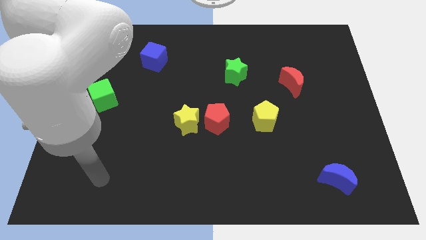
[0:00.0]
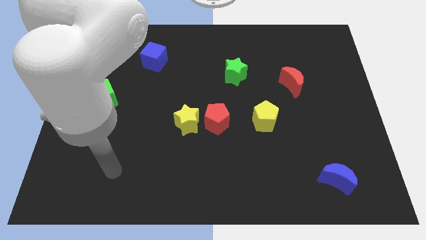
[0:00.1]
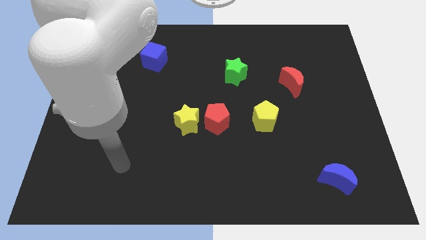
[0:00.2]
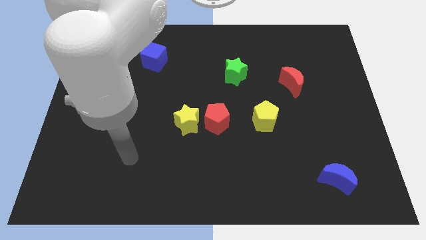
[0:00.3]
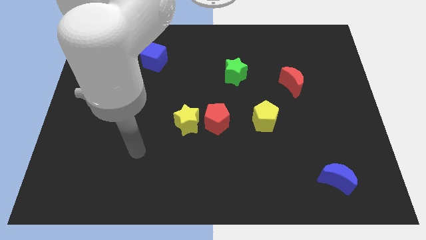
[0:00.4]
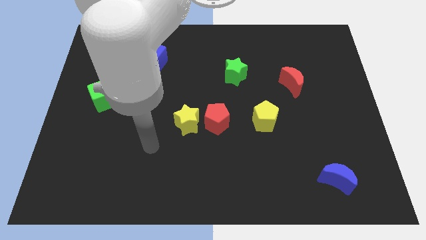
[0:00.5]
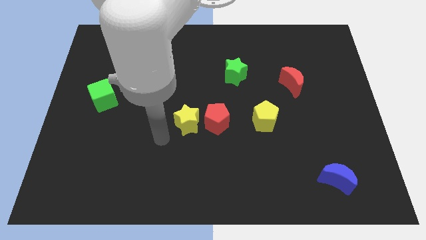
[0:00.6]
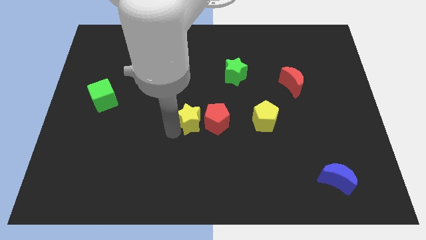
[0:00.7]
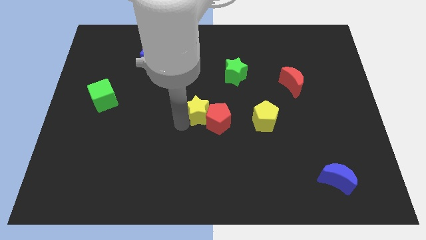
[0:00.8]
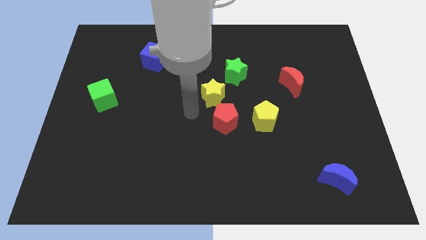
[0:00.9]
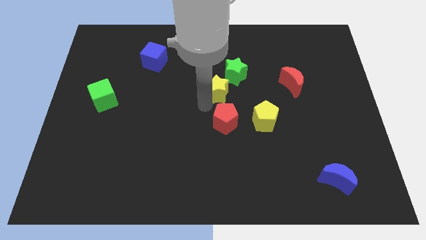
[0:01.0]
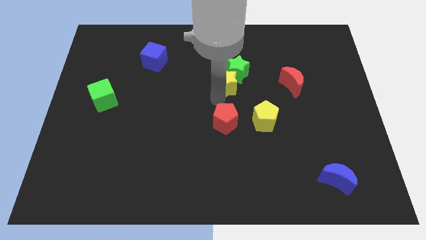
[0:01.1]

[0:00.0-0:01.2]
move the red pentagon away from the yellow star

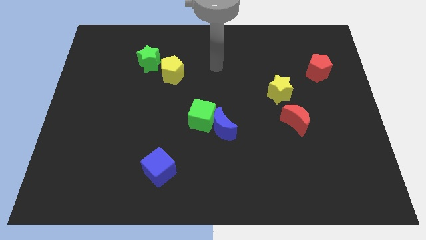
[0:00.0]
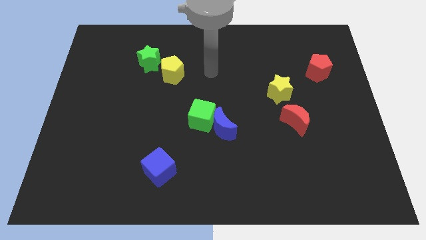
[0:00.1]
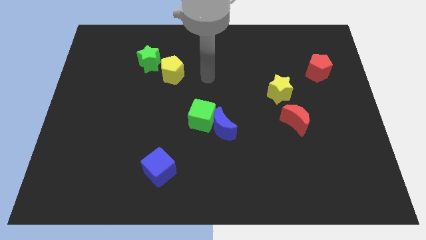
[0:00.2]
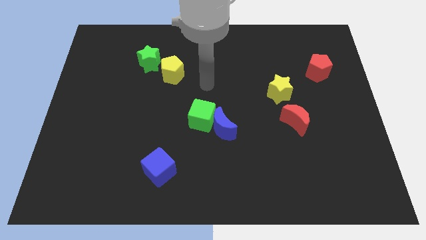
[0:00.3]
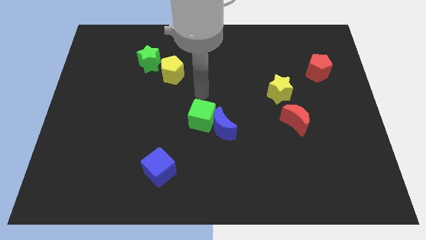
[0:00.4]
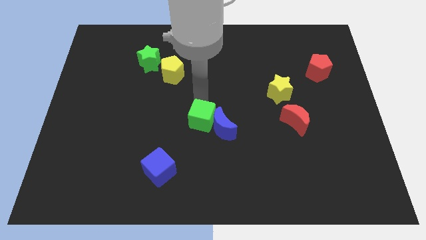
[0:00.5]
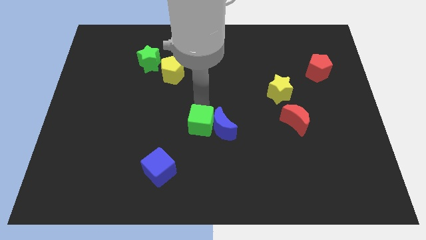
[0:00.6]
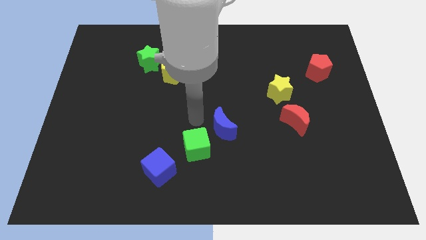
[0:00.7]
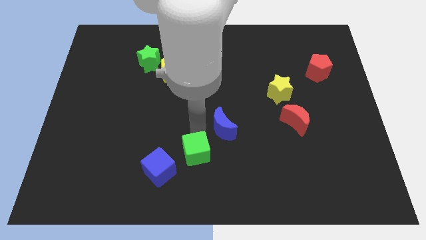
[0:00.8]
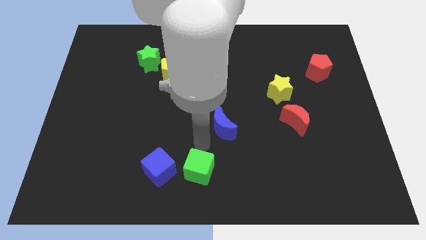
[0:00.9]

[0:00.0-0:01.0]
pull the blue moon apart from the green cube

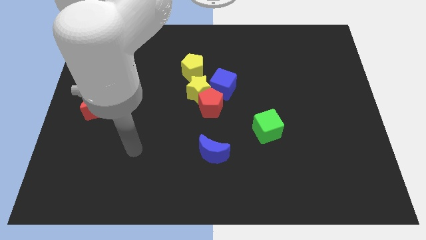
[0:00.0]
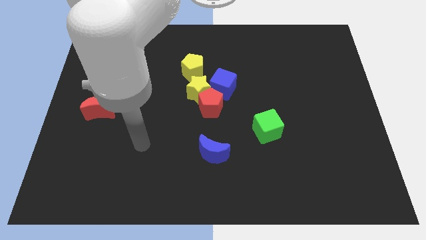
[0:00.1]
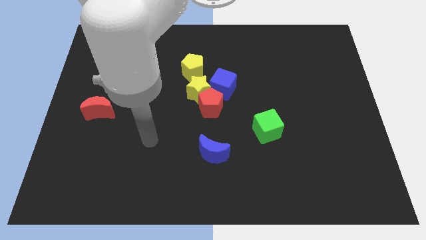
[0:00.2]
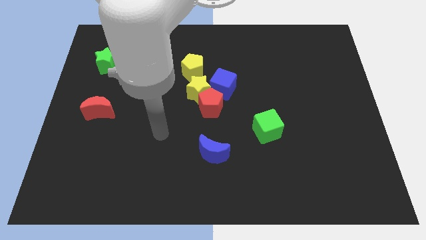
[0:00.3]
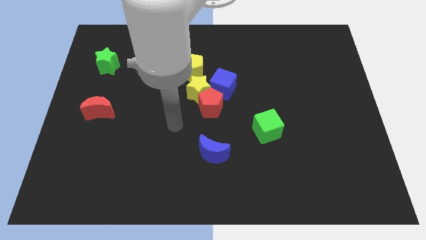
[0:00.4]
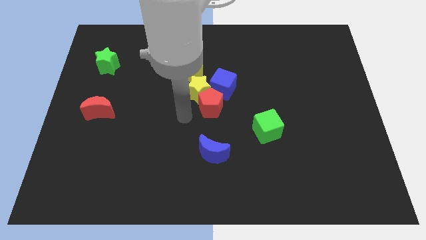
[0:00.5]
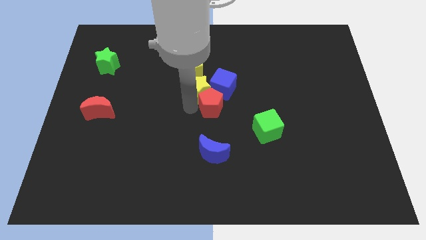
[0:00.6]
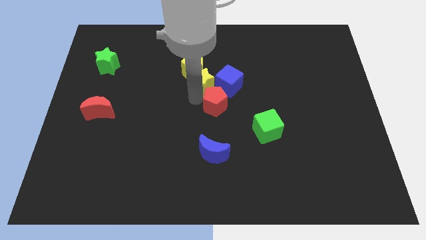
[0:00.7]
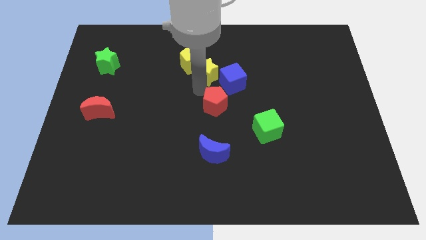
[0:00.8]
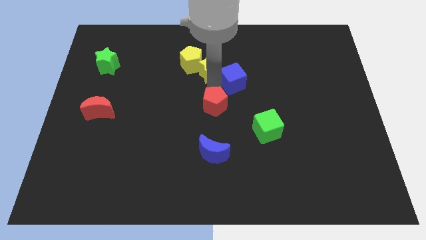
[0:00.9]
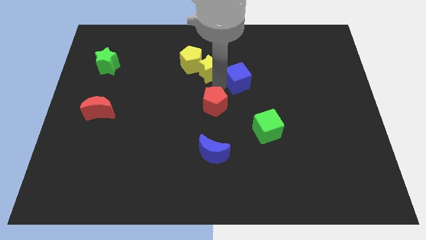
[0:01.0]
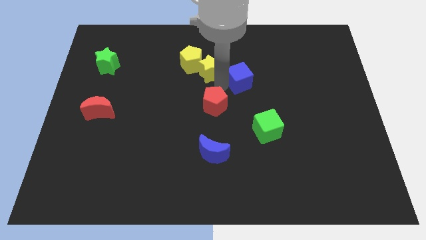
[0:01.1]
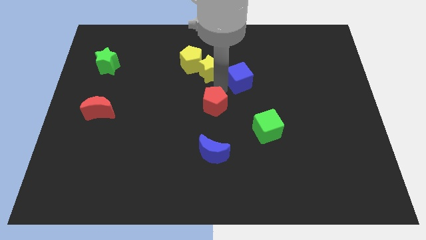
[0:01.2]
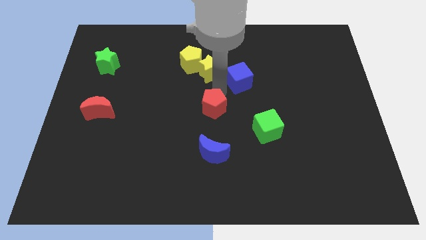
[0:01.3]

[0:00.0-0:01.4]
separate the red pentagon from the yellow star and blue cube

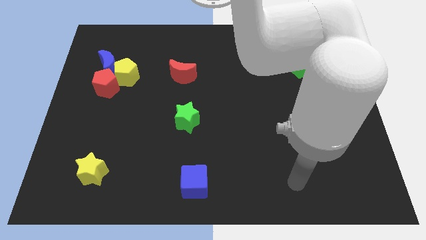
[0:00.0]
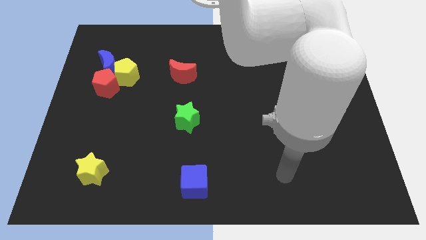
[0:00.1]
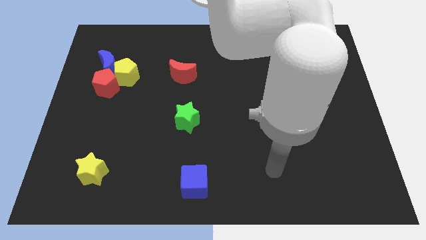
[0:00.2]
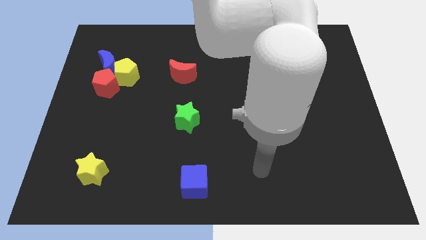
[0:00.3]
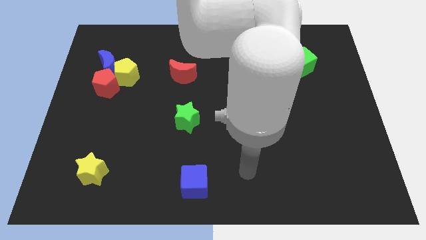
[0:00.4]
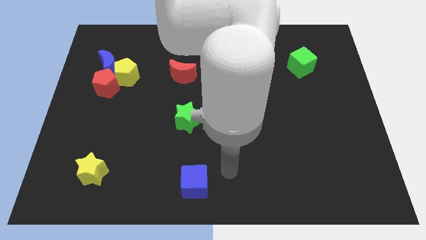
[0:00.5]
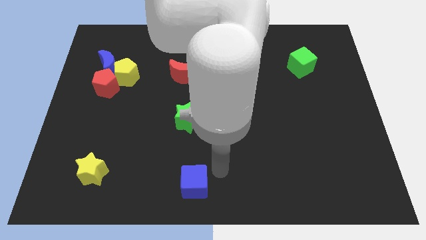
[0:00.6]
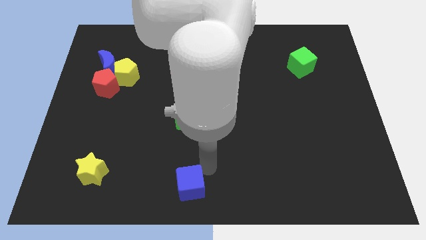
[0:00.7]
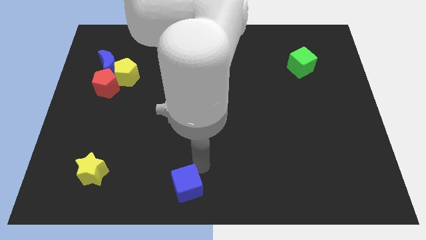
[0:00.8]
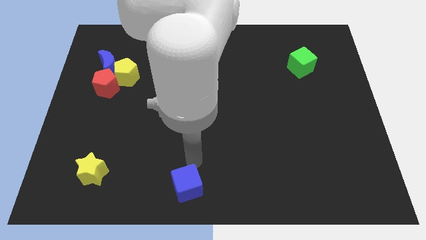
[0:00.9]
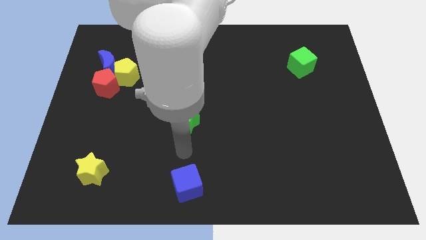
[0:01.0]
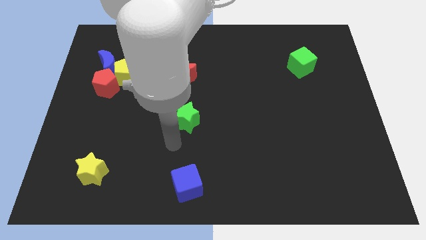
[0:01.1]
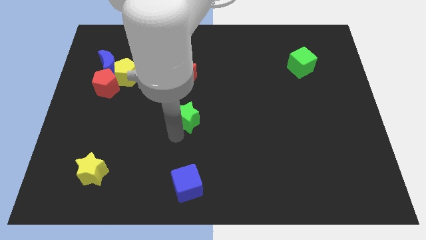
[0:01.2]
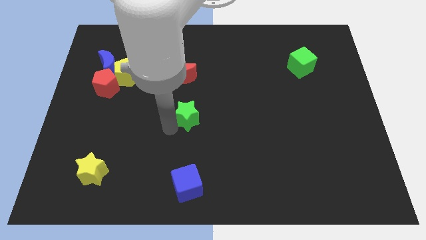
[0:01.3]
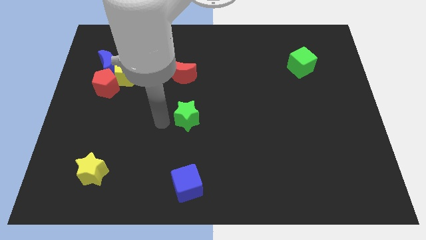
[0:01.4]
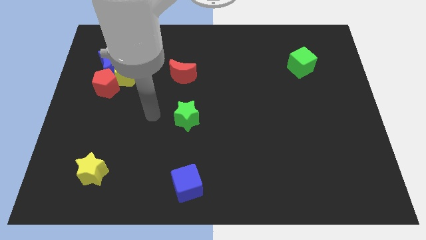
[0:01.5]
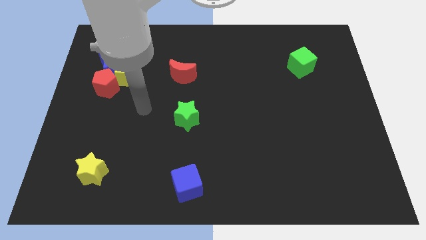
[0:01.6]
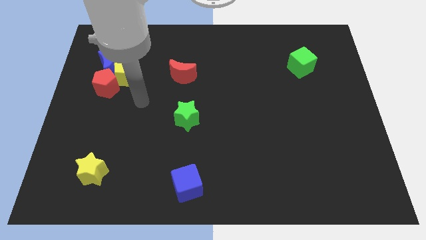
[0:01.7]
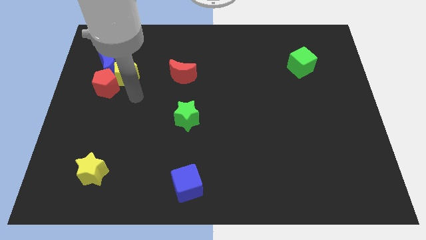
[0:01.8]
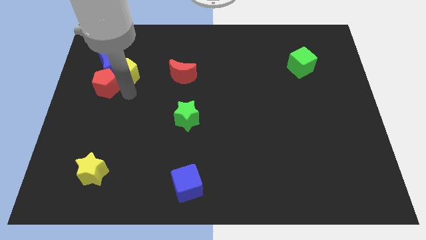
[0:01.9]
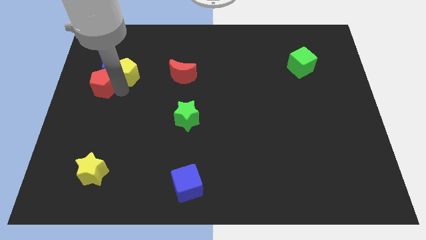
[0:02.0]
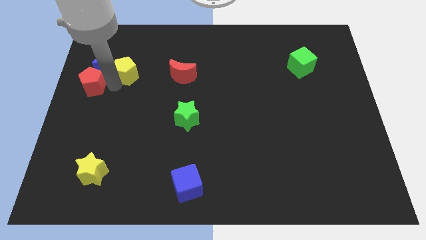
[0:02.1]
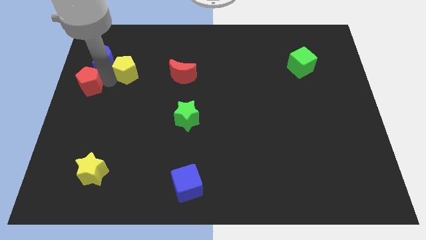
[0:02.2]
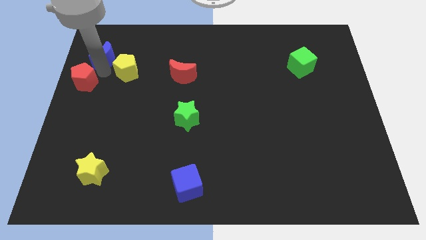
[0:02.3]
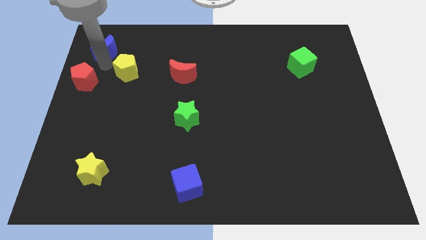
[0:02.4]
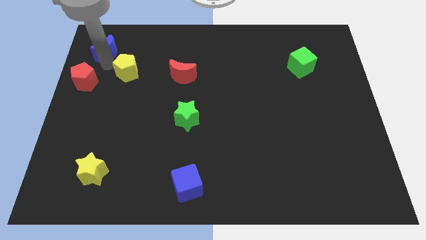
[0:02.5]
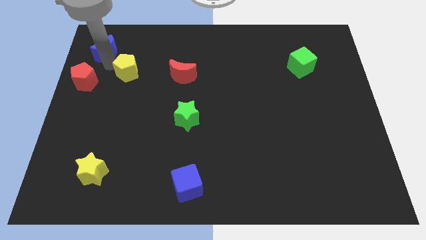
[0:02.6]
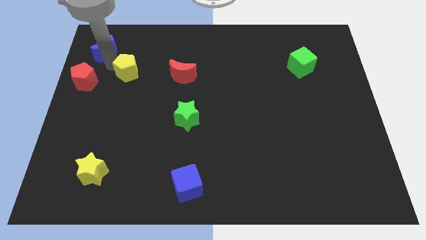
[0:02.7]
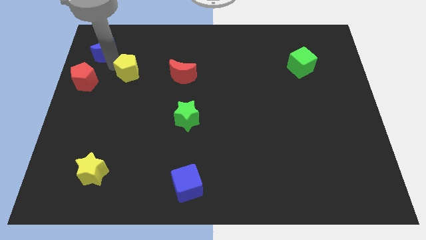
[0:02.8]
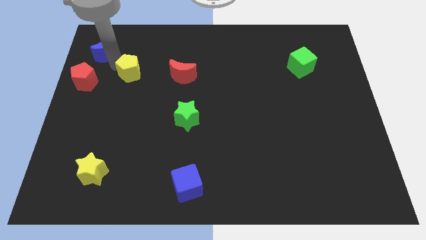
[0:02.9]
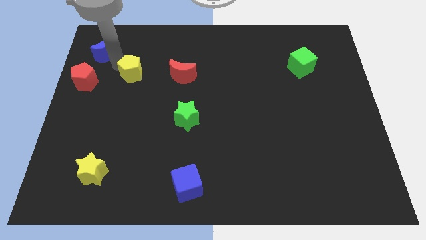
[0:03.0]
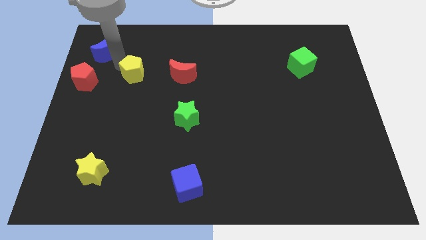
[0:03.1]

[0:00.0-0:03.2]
pull the yellow pentagon apart from the blue moon and red pentagon

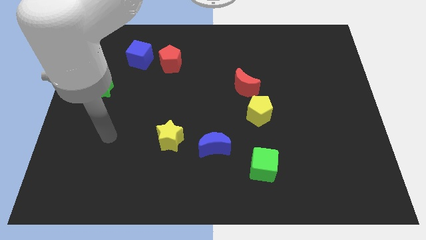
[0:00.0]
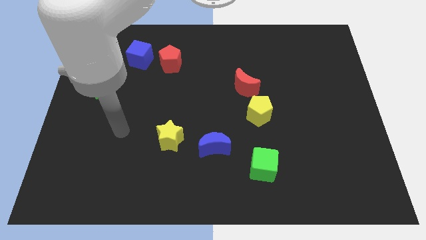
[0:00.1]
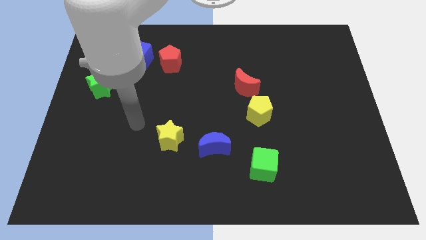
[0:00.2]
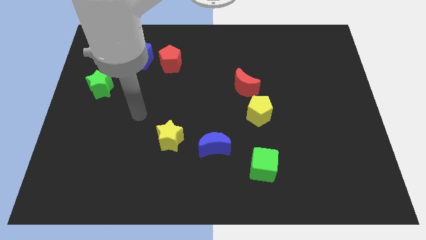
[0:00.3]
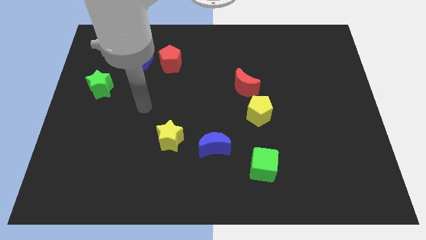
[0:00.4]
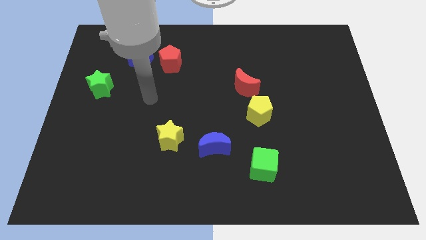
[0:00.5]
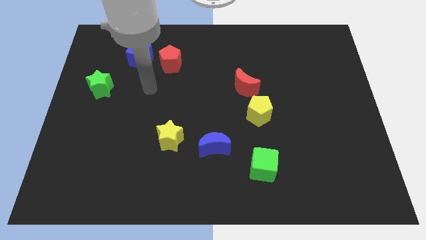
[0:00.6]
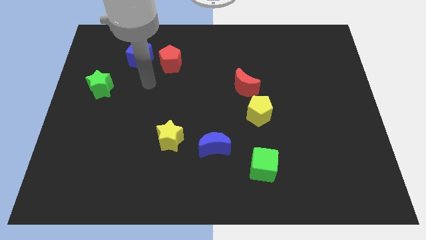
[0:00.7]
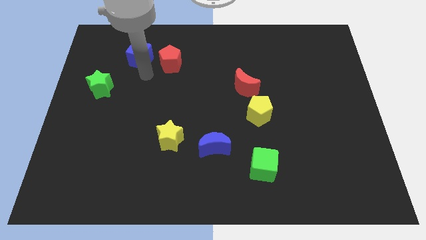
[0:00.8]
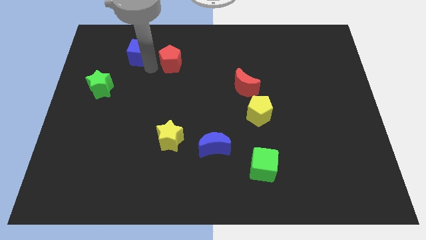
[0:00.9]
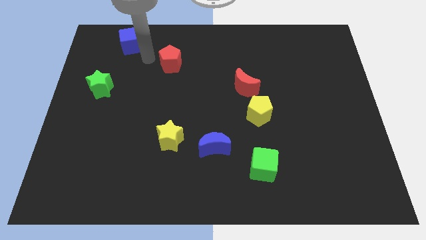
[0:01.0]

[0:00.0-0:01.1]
separate the red pentagon from the blue cube

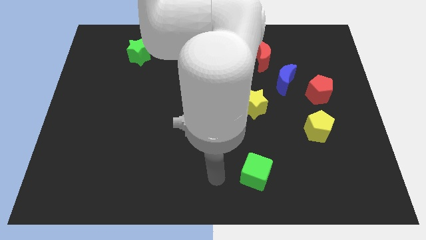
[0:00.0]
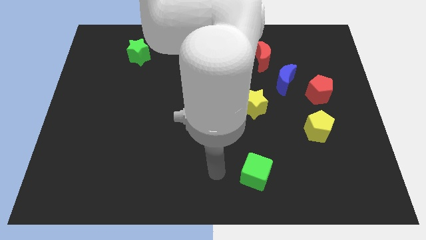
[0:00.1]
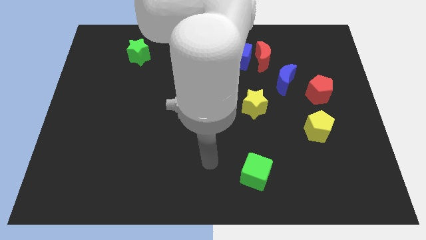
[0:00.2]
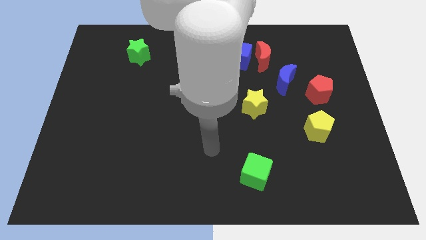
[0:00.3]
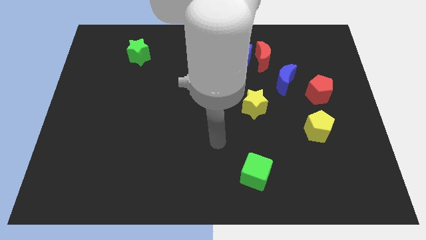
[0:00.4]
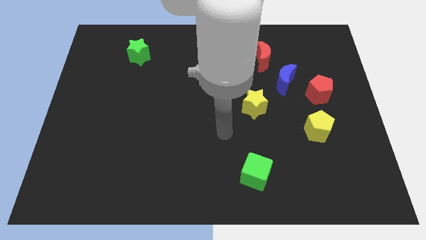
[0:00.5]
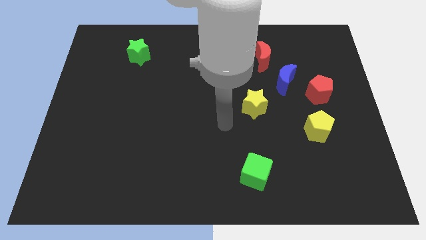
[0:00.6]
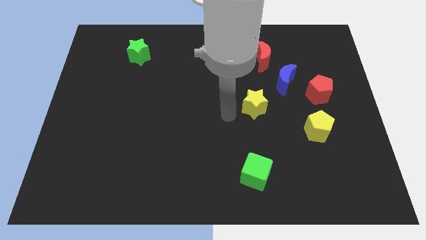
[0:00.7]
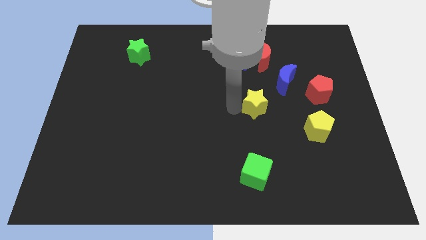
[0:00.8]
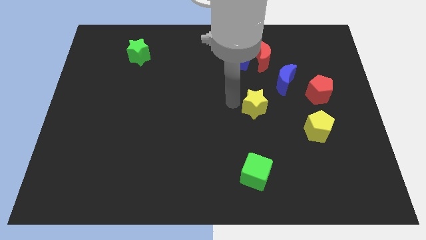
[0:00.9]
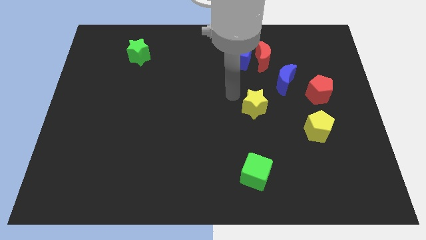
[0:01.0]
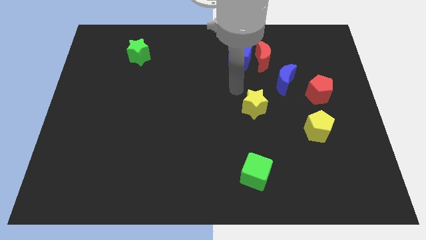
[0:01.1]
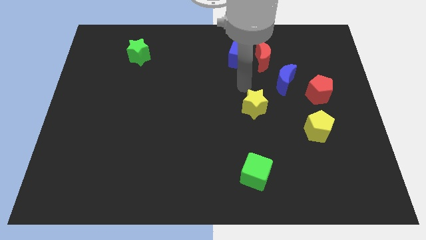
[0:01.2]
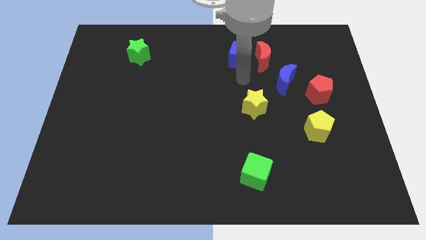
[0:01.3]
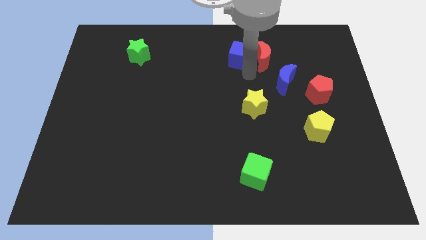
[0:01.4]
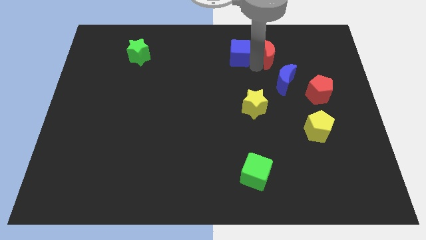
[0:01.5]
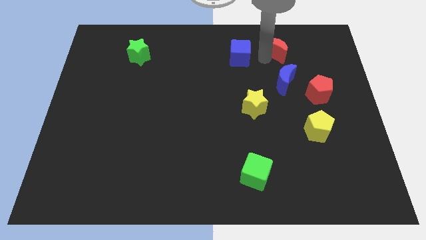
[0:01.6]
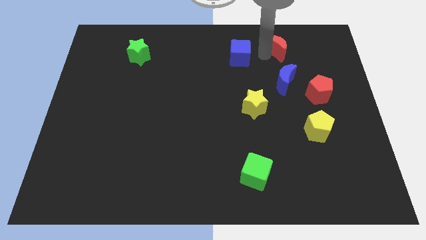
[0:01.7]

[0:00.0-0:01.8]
move the blue cube away from the red moon
